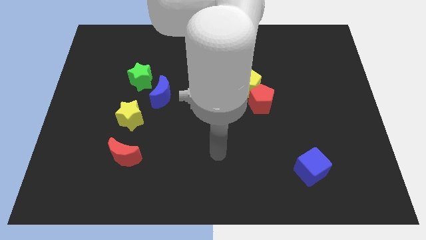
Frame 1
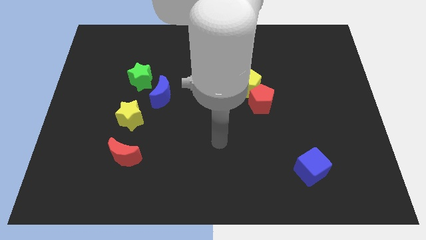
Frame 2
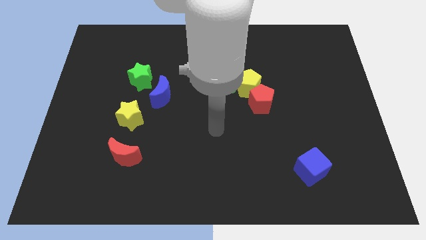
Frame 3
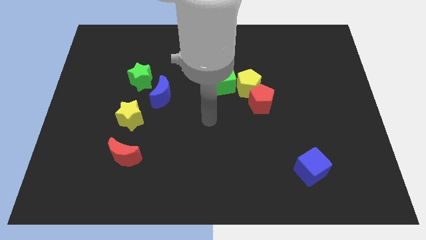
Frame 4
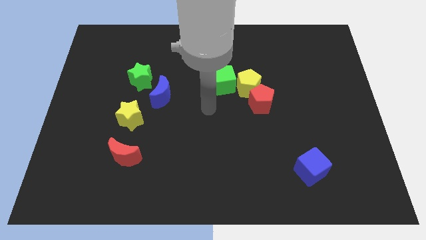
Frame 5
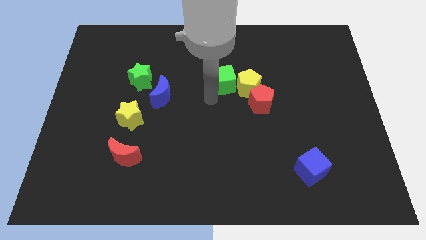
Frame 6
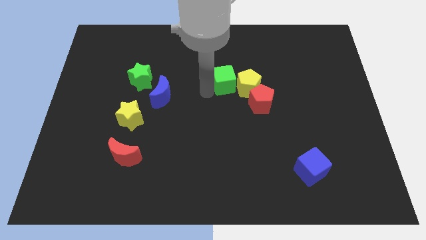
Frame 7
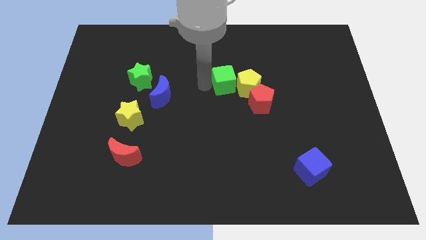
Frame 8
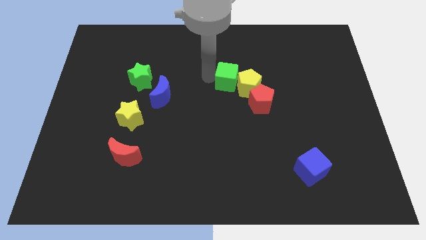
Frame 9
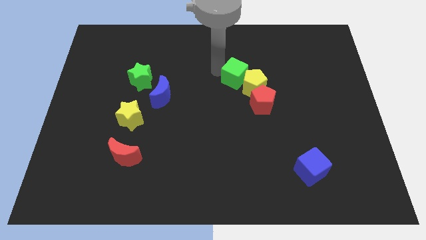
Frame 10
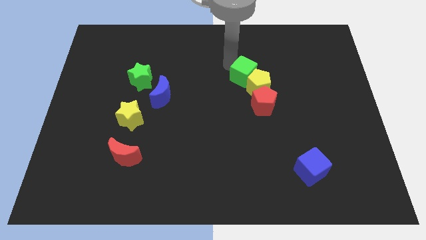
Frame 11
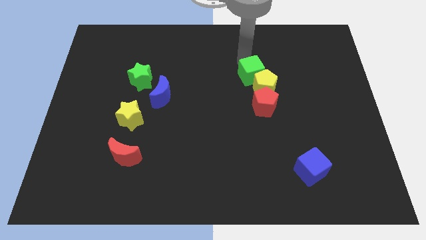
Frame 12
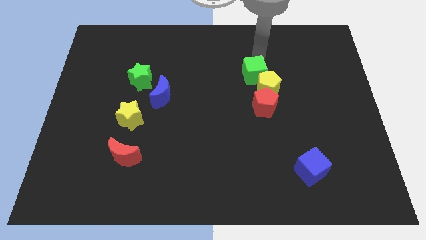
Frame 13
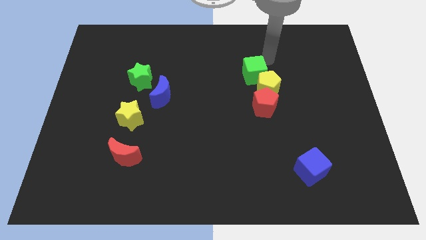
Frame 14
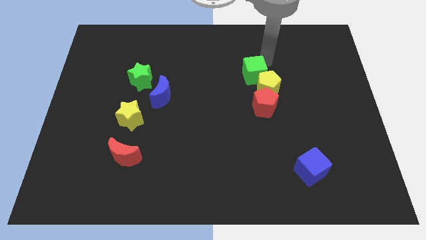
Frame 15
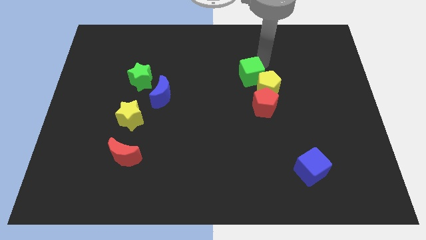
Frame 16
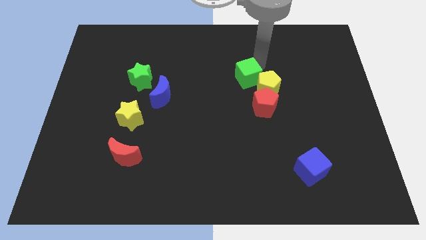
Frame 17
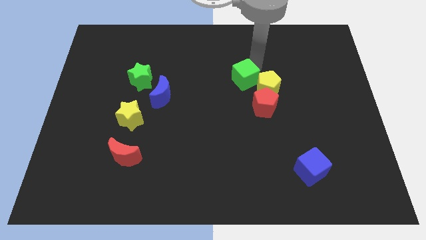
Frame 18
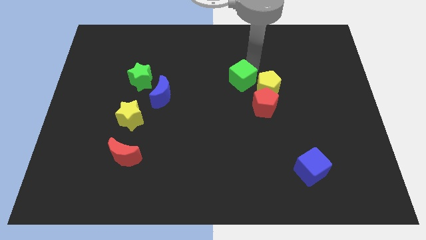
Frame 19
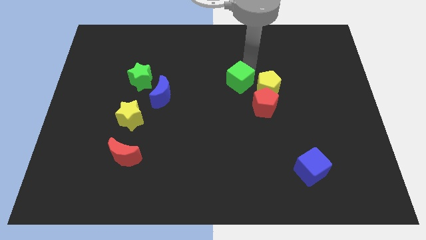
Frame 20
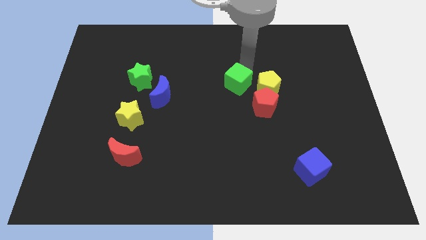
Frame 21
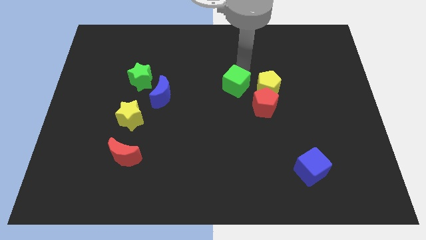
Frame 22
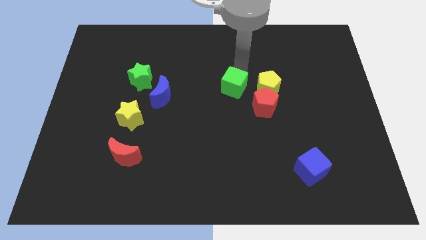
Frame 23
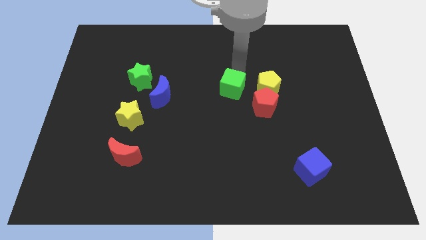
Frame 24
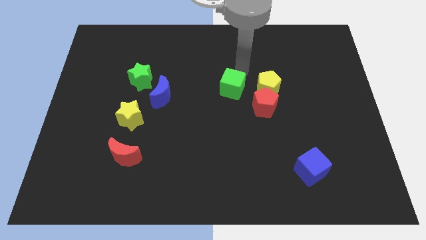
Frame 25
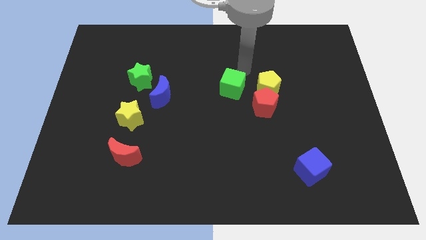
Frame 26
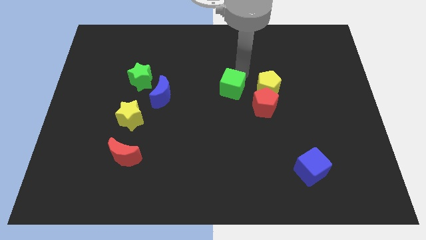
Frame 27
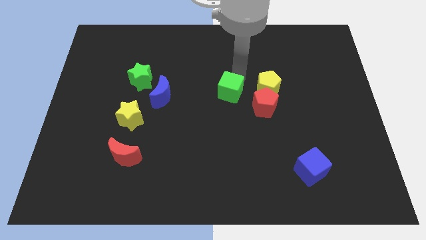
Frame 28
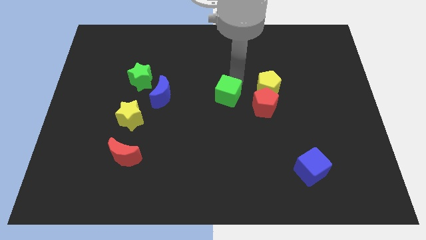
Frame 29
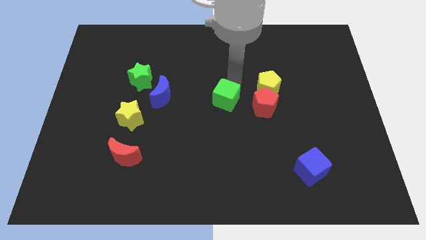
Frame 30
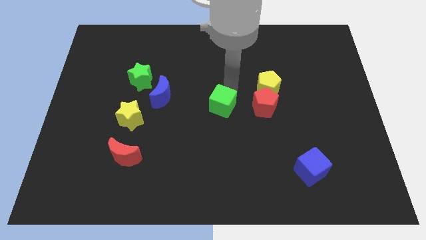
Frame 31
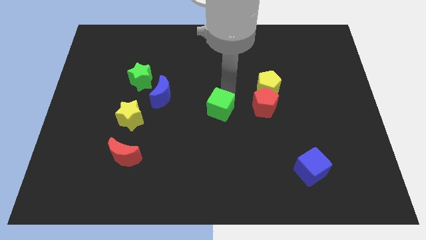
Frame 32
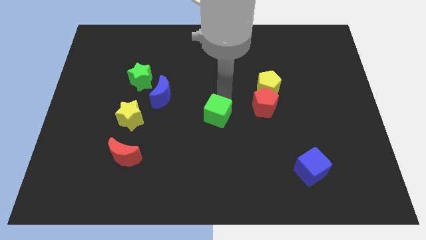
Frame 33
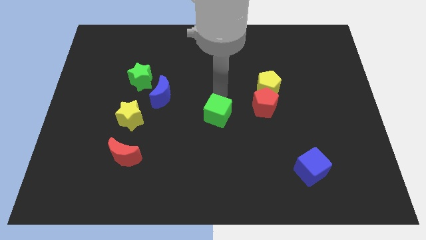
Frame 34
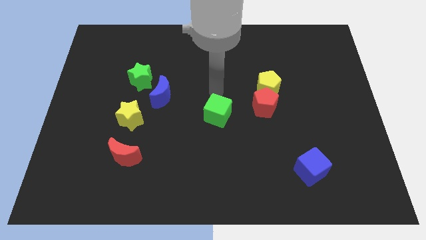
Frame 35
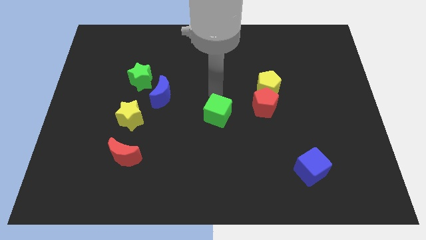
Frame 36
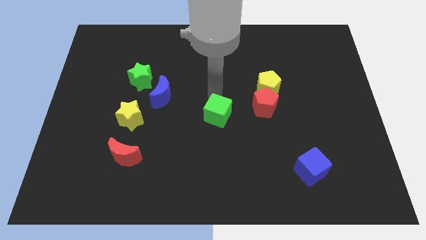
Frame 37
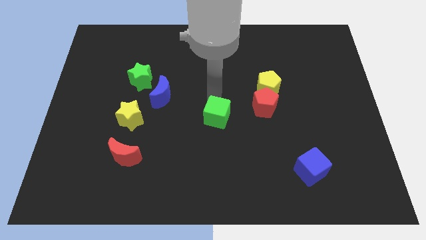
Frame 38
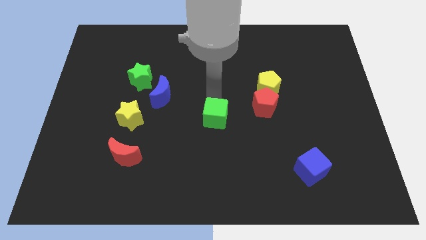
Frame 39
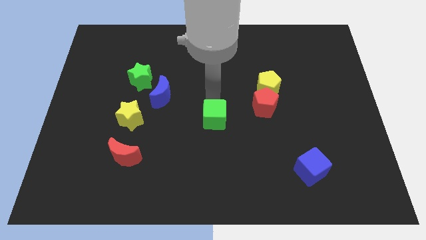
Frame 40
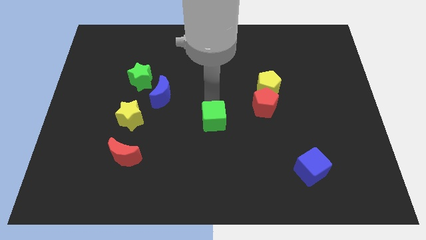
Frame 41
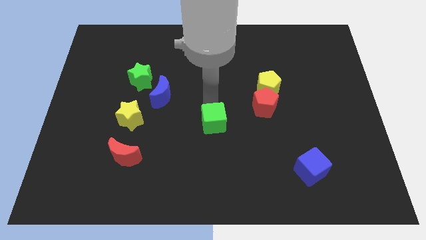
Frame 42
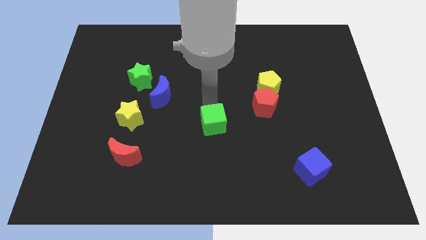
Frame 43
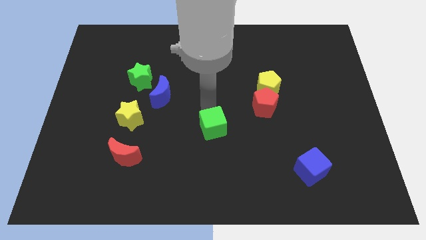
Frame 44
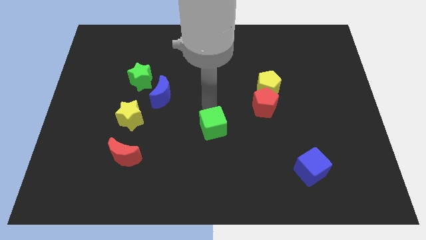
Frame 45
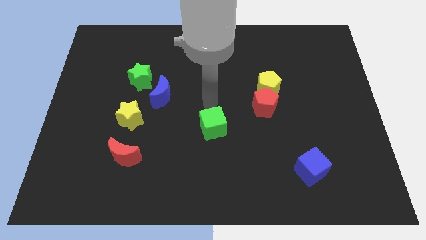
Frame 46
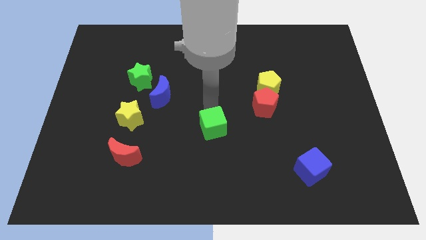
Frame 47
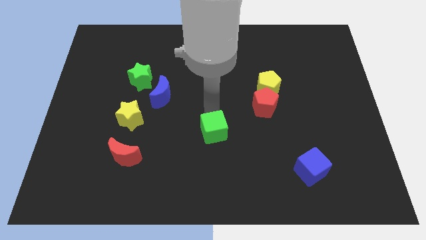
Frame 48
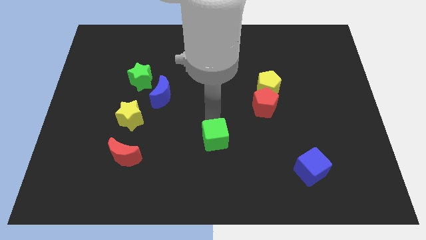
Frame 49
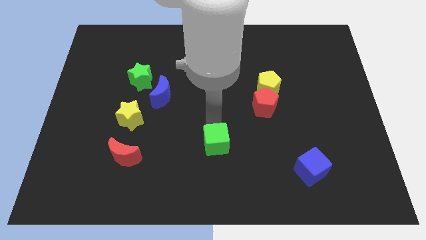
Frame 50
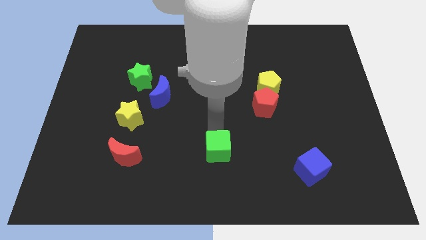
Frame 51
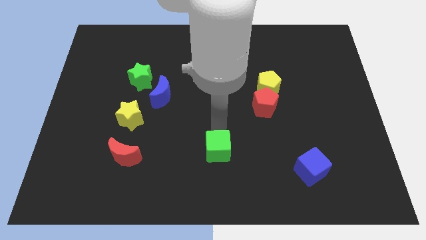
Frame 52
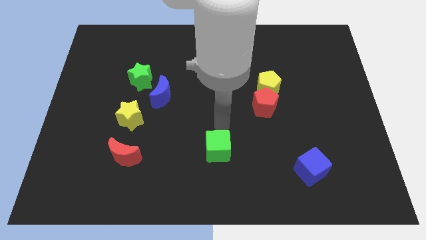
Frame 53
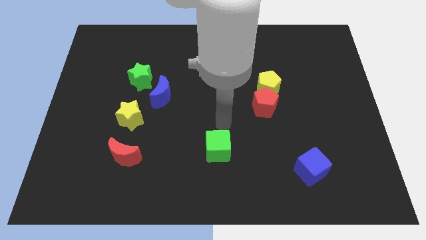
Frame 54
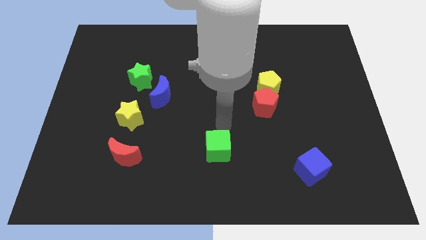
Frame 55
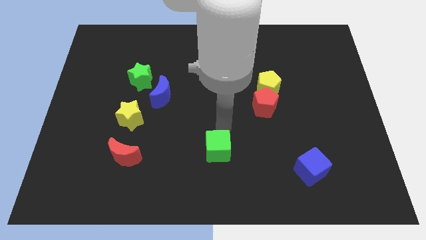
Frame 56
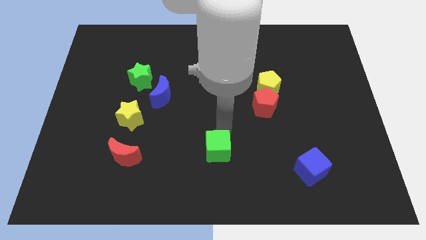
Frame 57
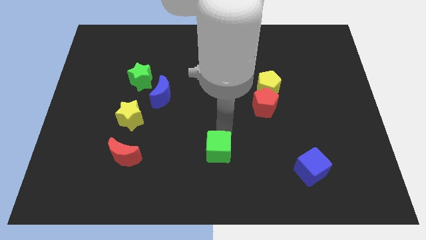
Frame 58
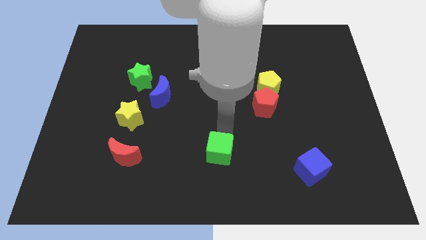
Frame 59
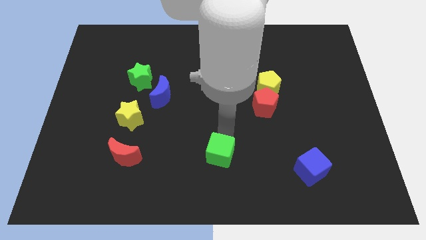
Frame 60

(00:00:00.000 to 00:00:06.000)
slide the green cube to the bottom

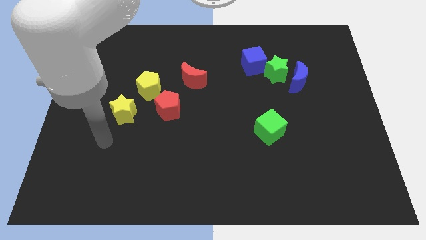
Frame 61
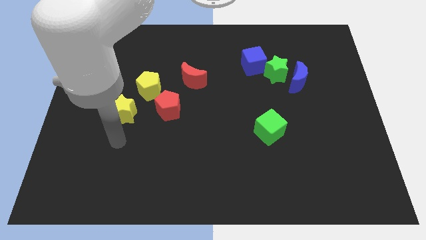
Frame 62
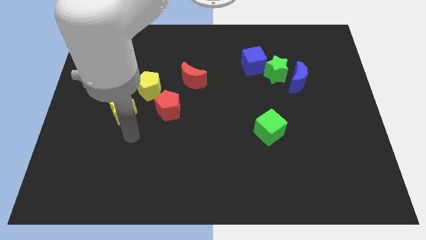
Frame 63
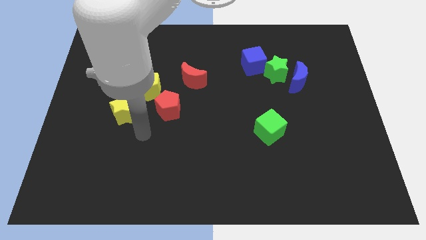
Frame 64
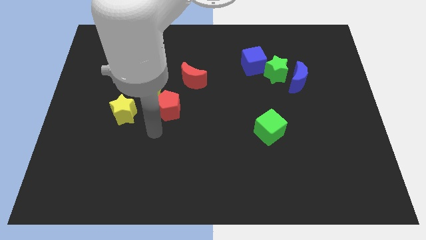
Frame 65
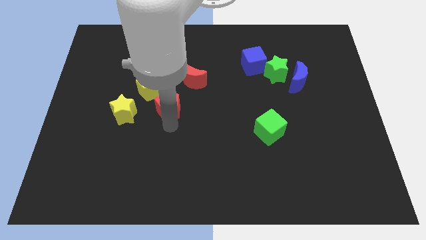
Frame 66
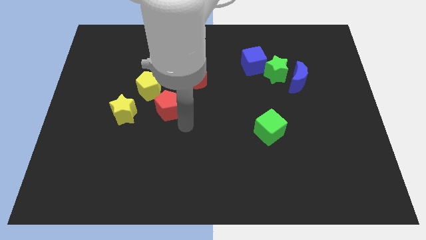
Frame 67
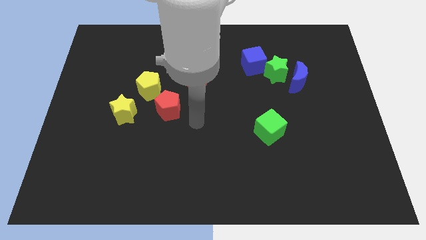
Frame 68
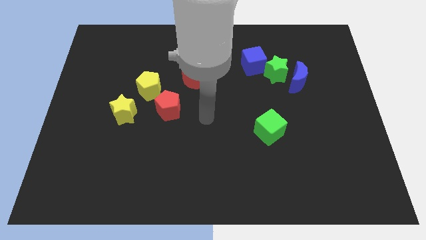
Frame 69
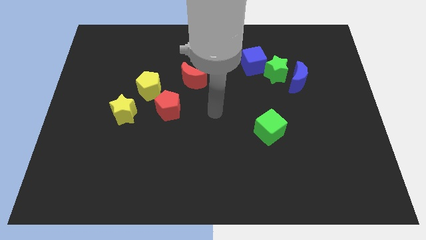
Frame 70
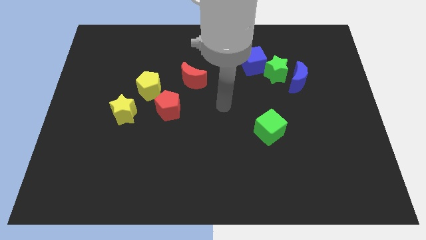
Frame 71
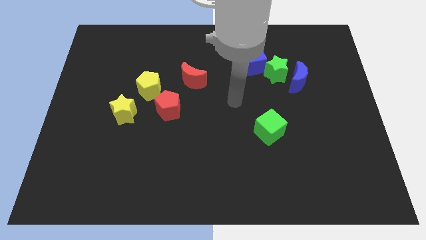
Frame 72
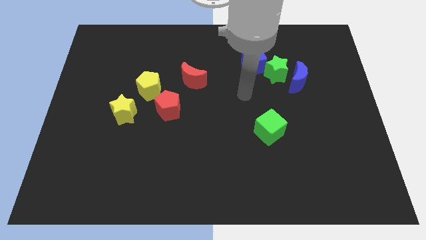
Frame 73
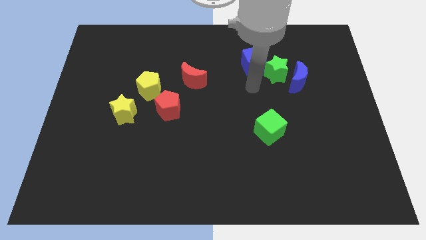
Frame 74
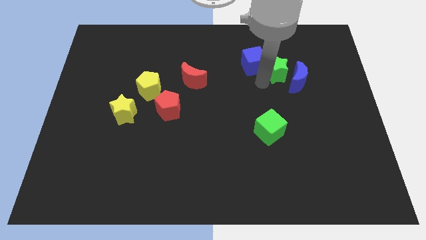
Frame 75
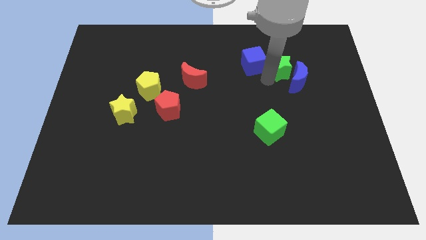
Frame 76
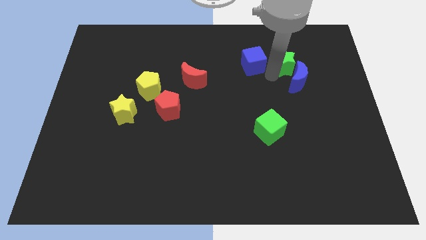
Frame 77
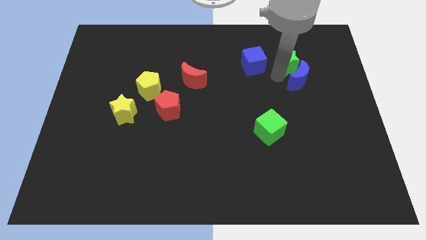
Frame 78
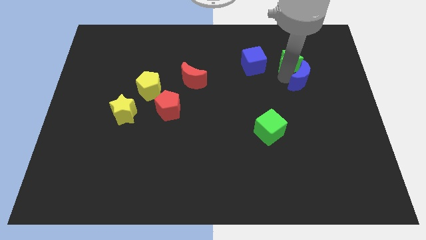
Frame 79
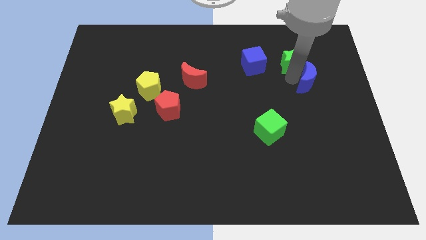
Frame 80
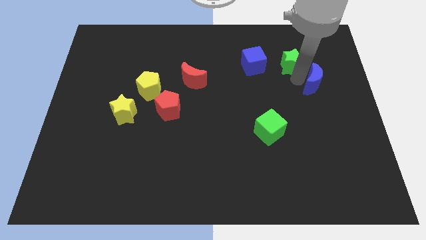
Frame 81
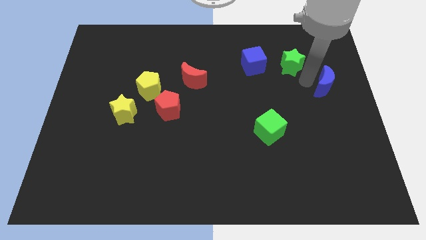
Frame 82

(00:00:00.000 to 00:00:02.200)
slide the blue moon to the right side of the board
